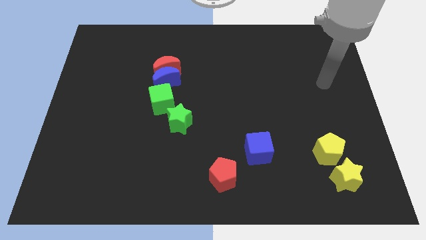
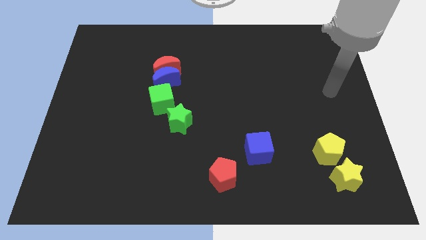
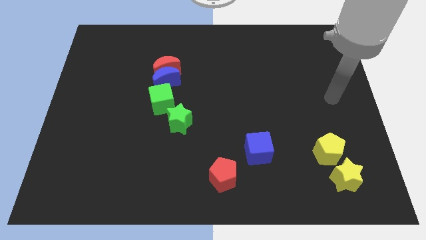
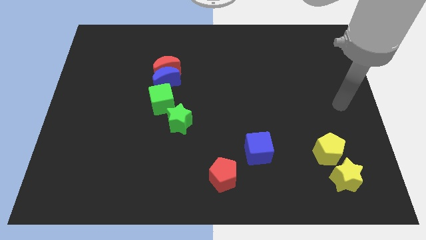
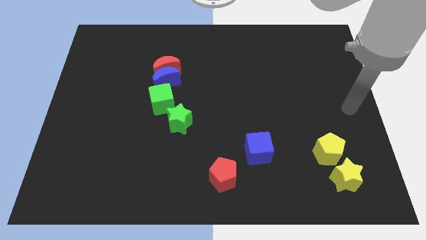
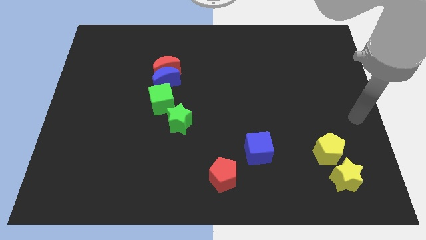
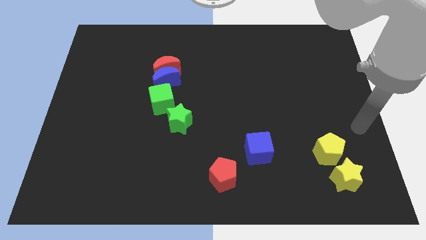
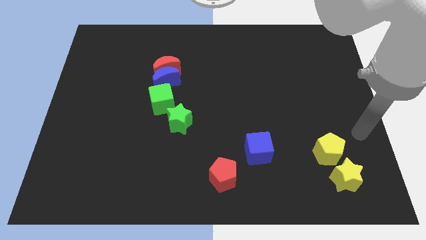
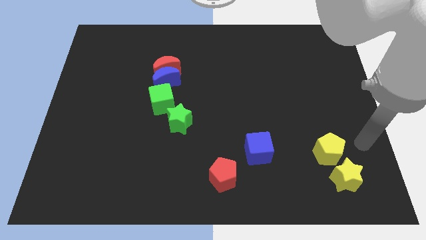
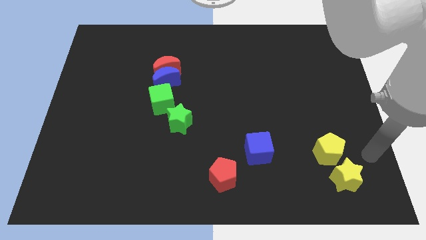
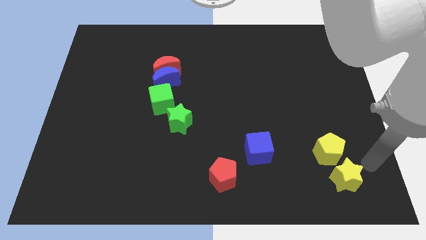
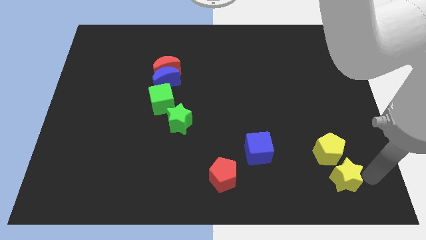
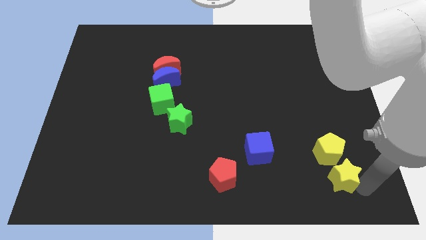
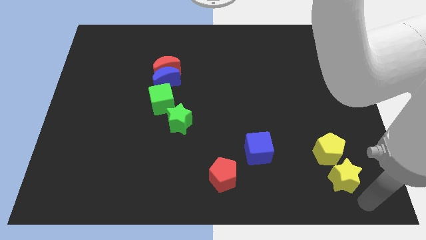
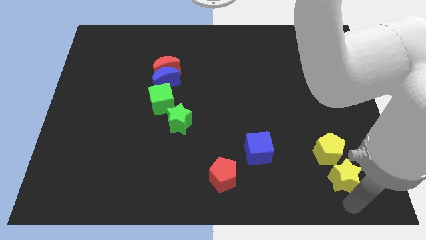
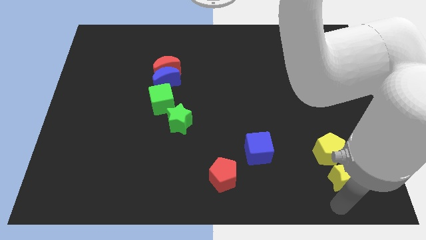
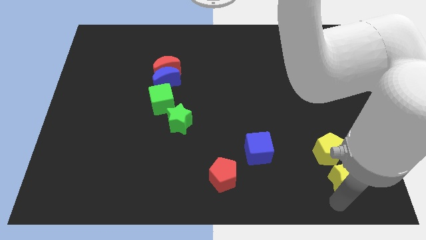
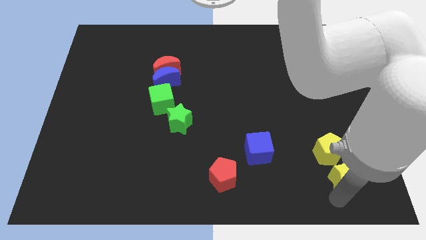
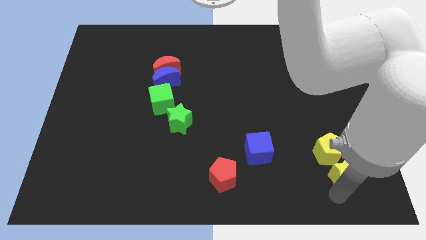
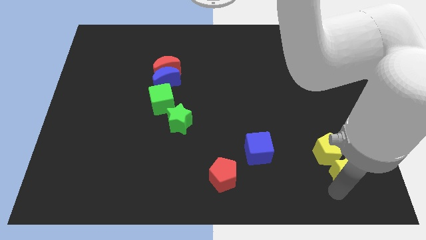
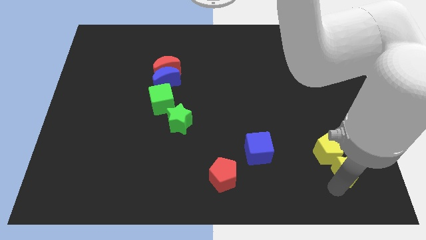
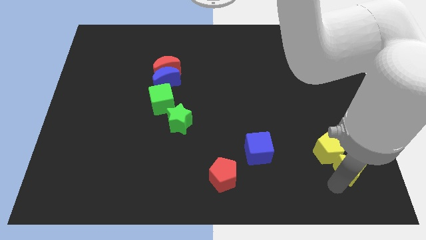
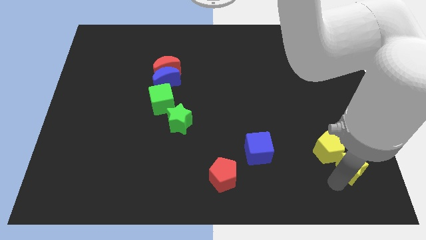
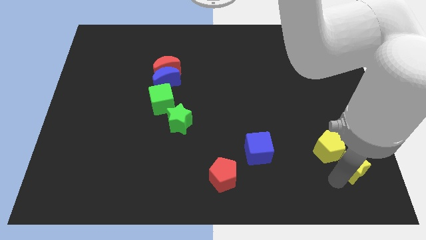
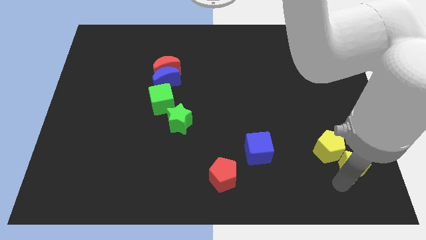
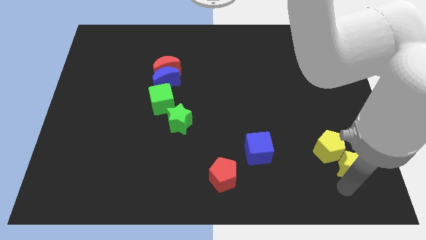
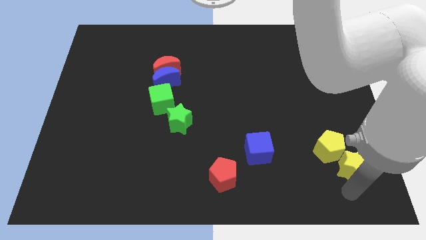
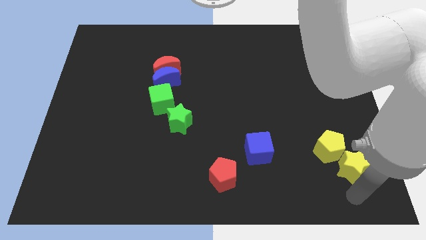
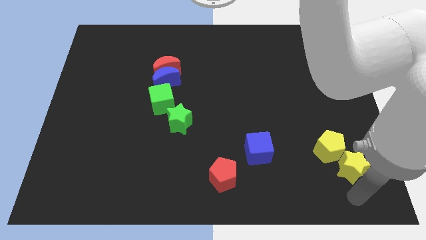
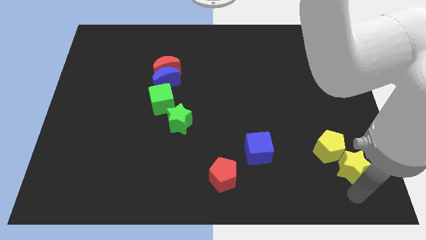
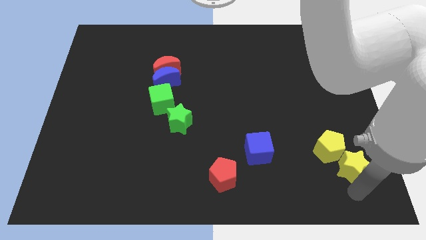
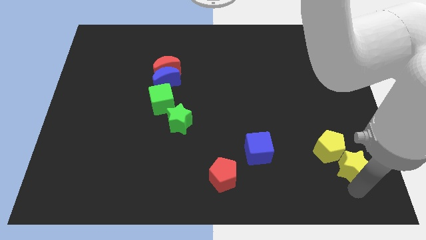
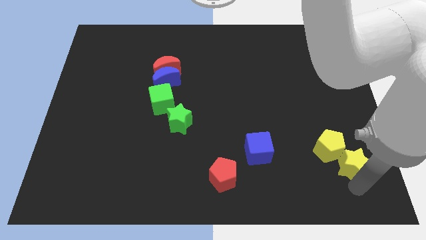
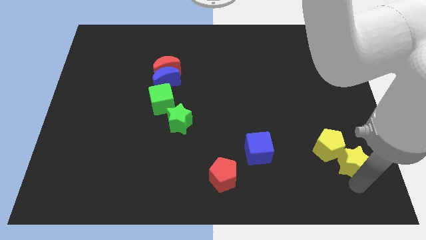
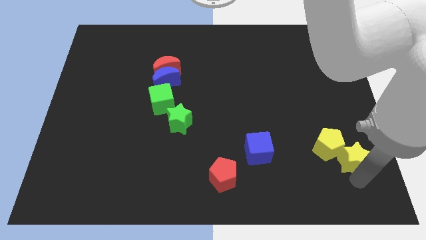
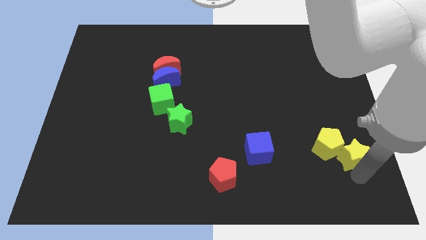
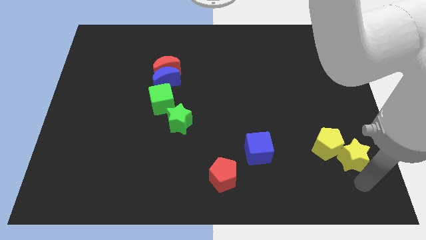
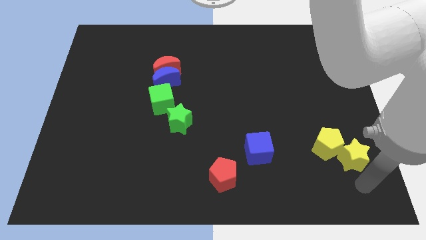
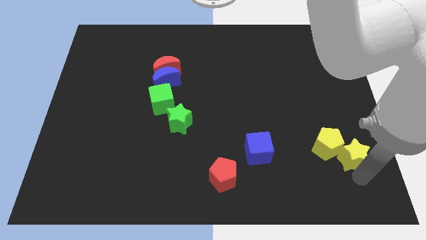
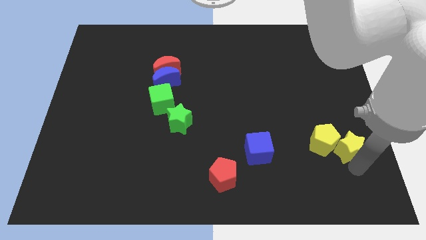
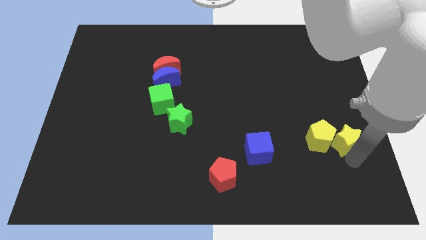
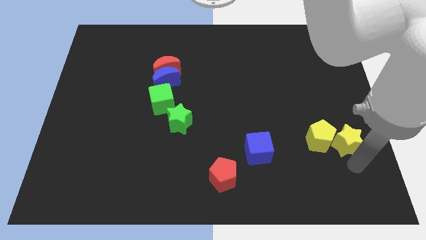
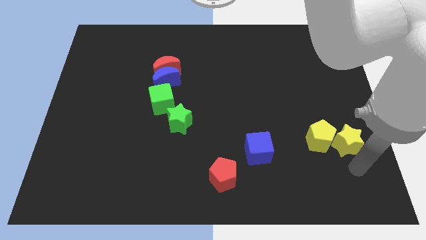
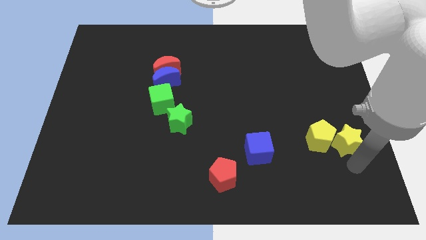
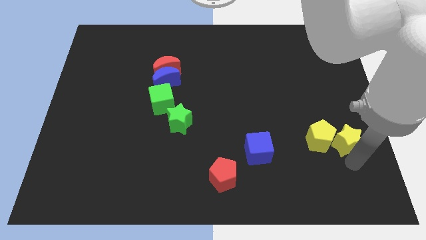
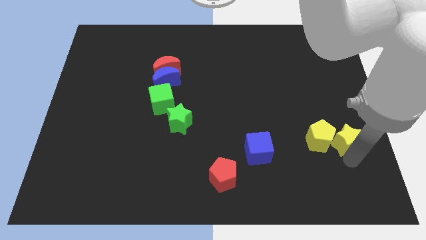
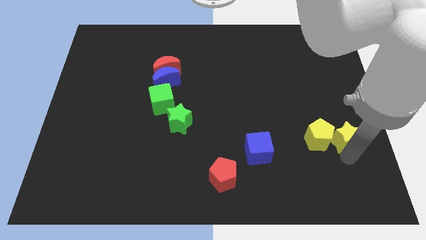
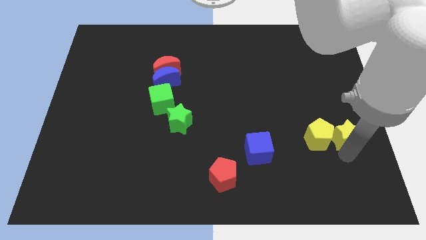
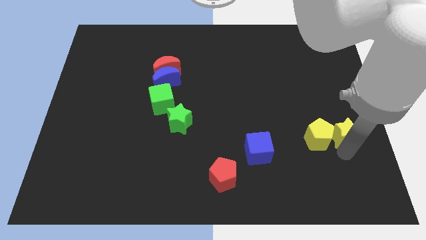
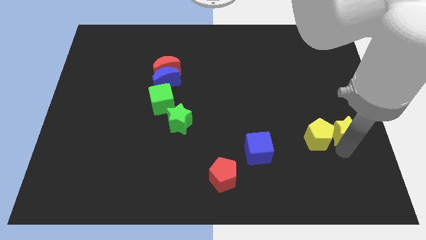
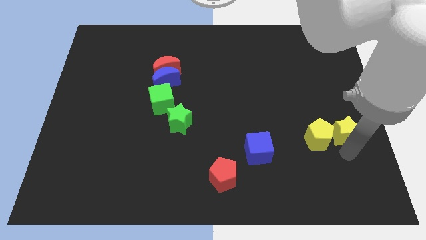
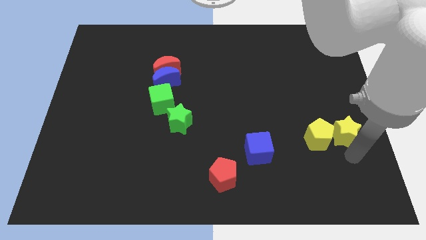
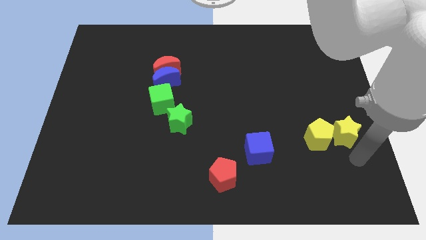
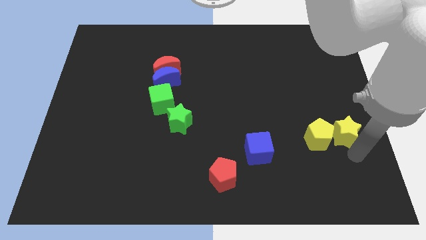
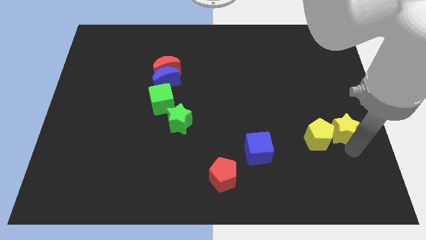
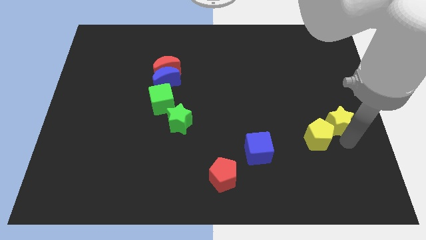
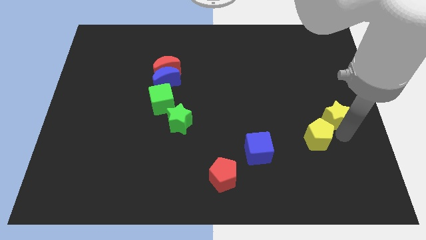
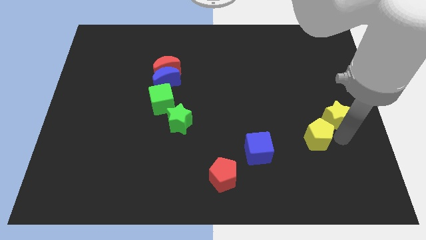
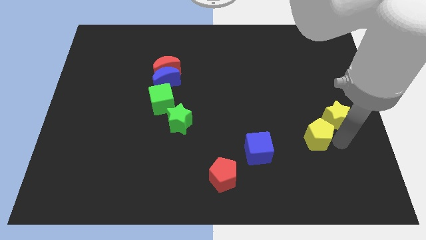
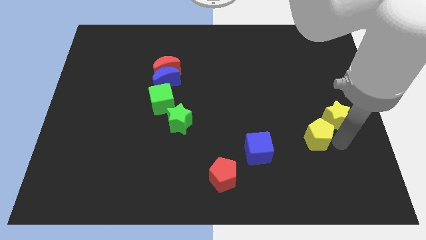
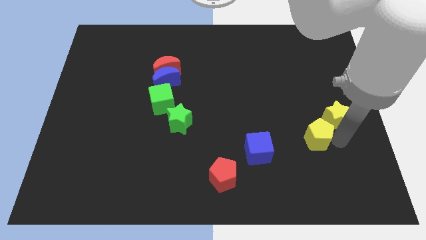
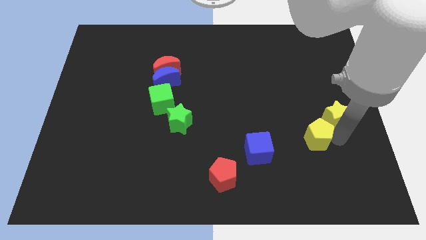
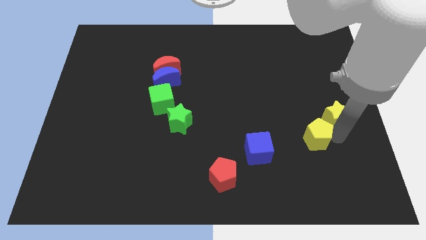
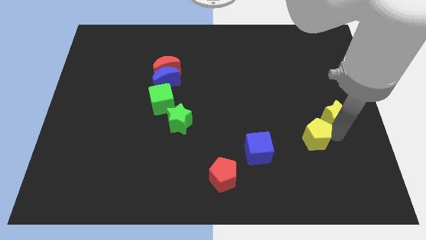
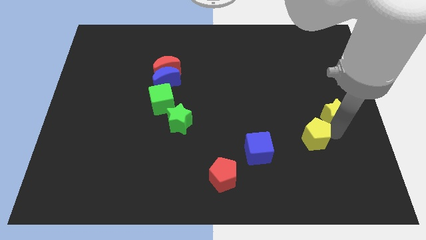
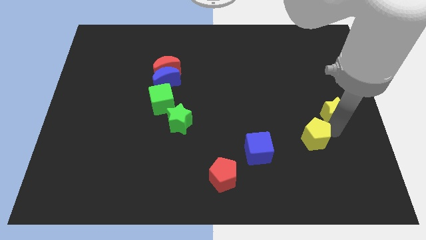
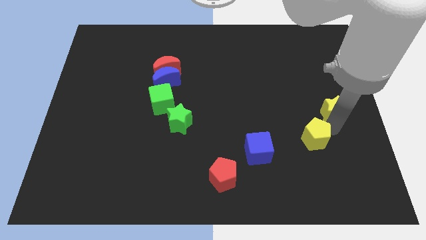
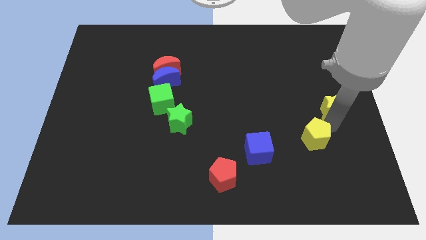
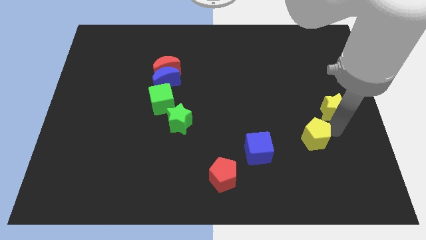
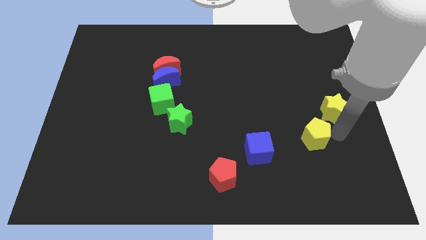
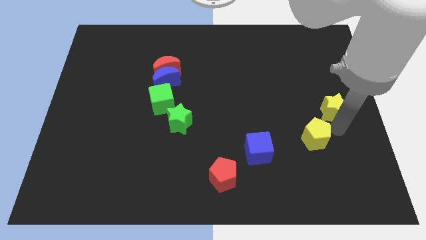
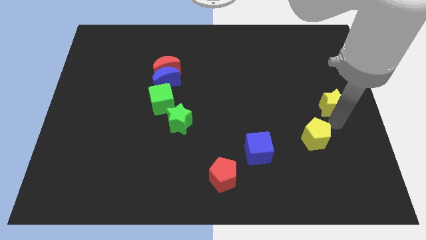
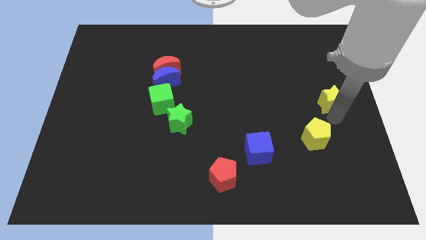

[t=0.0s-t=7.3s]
push the yellow star up

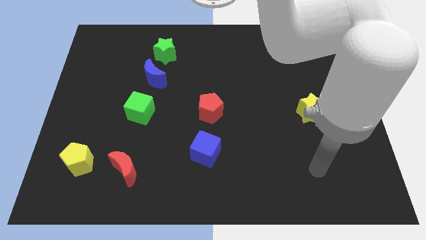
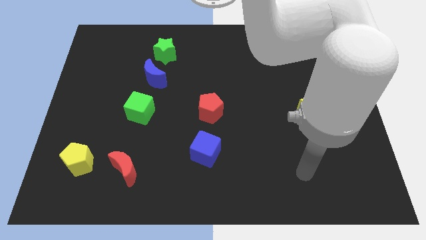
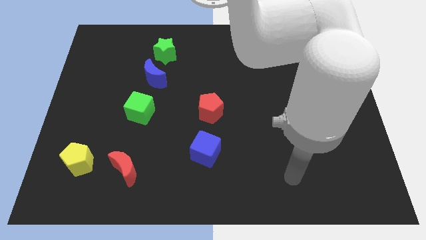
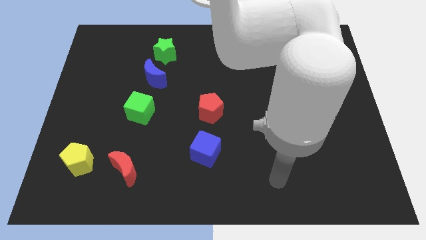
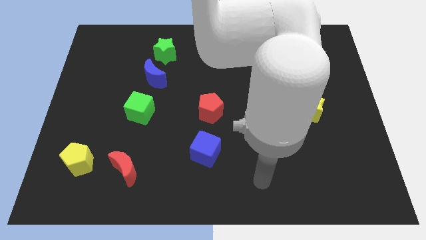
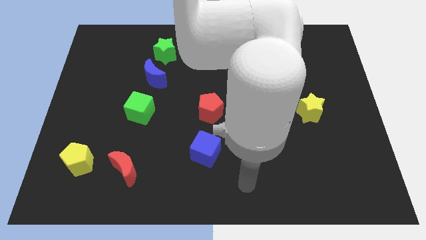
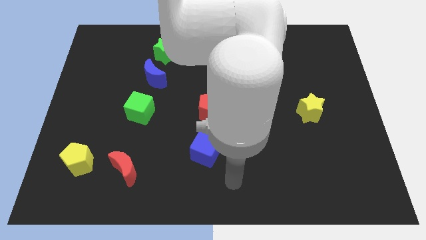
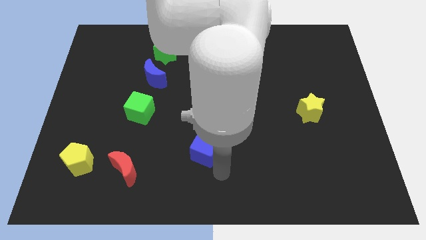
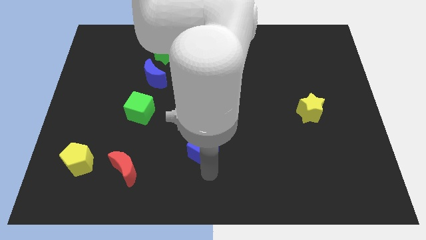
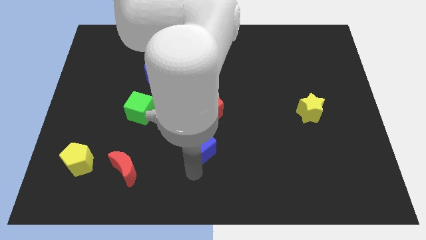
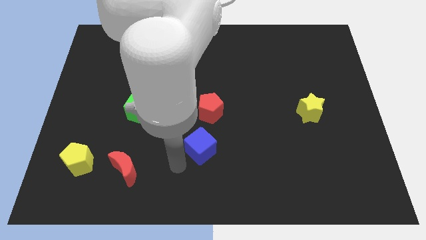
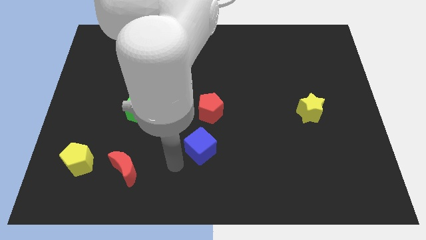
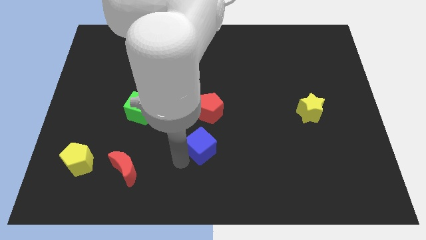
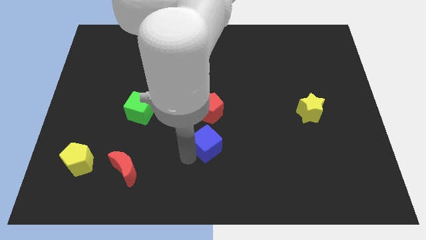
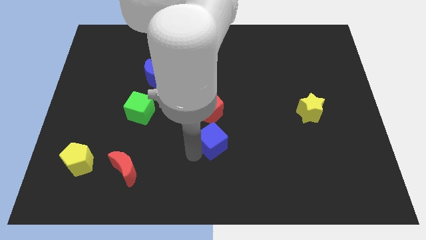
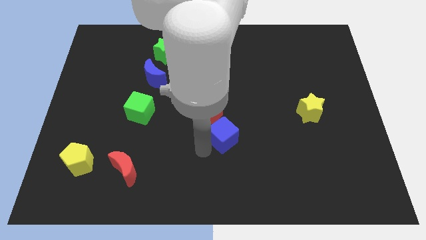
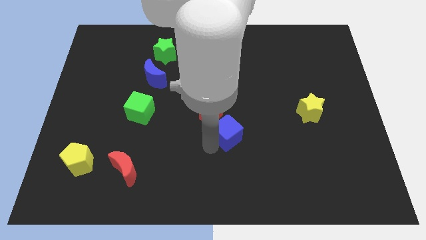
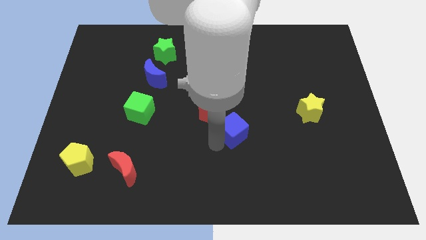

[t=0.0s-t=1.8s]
move the blue cube a bit up and then to the right
